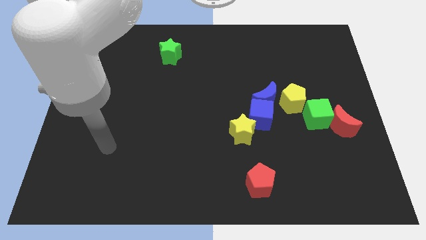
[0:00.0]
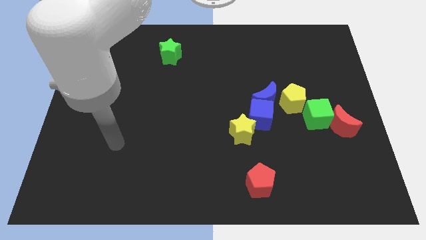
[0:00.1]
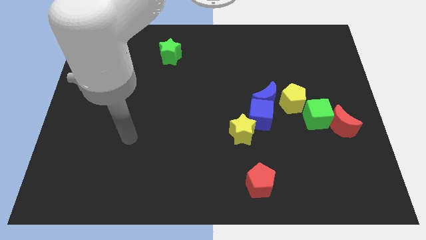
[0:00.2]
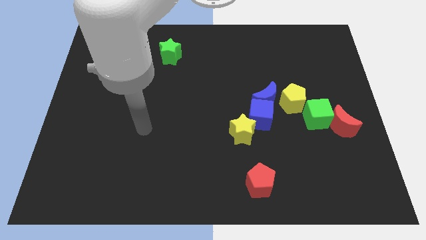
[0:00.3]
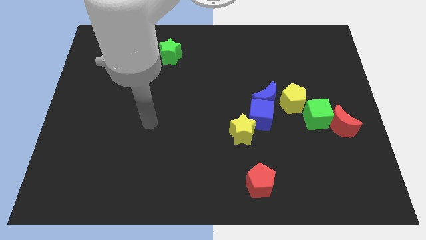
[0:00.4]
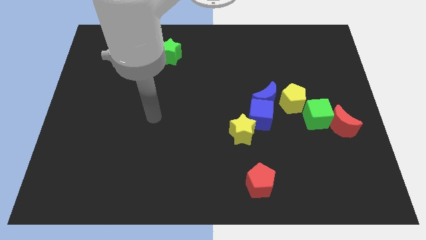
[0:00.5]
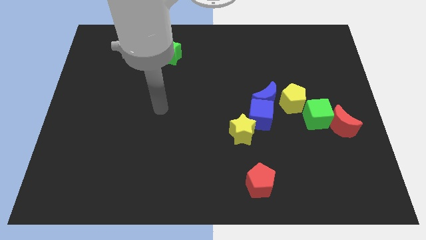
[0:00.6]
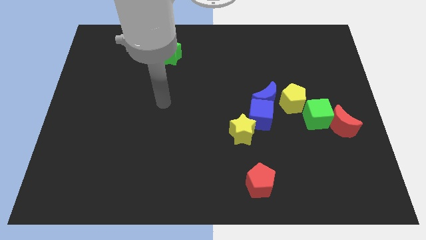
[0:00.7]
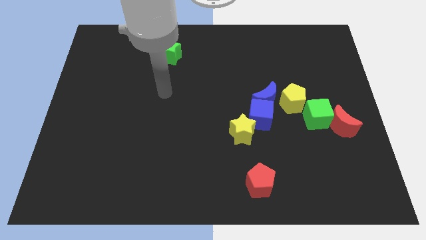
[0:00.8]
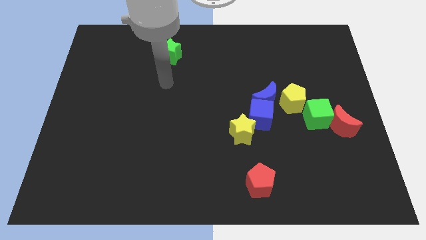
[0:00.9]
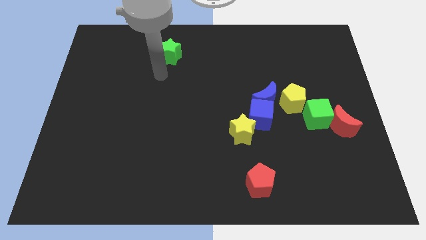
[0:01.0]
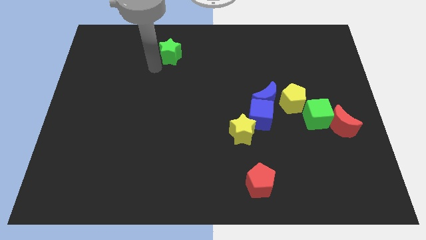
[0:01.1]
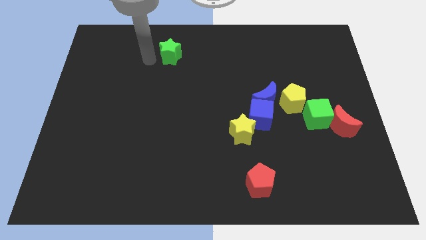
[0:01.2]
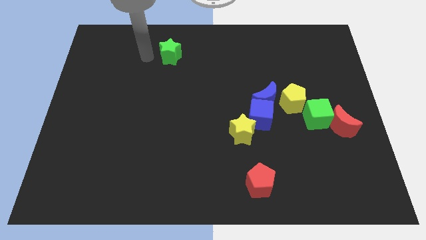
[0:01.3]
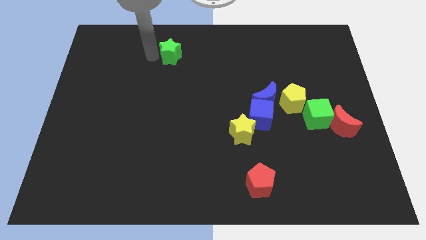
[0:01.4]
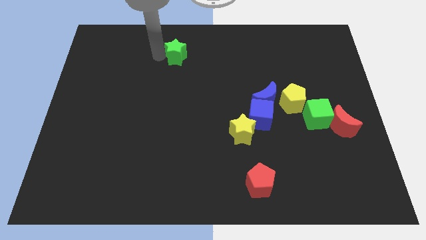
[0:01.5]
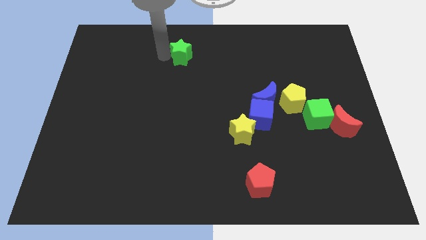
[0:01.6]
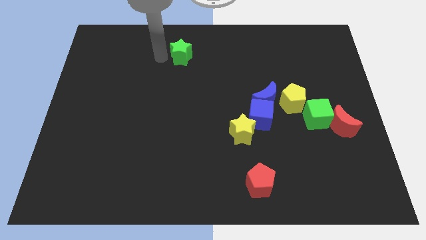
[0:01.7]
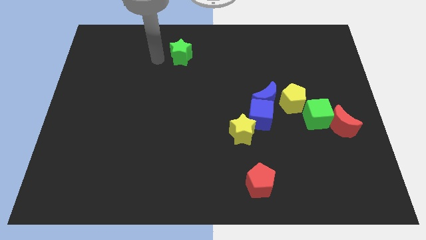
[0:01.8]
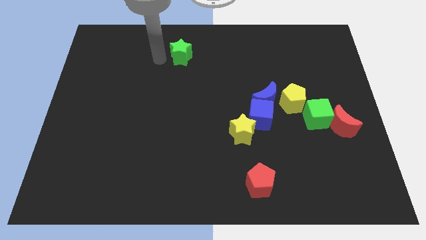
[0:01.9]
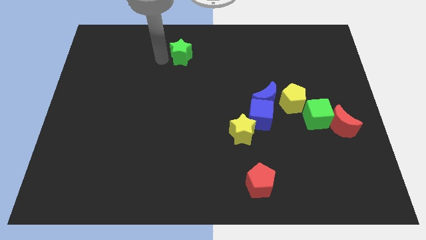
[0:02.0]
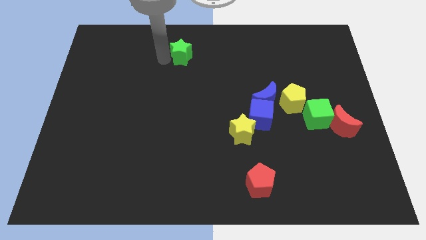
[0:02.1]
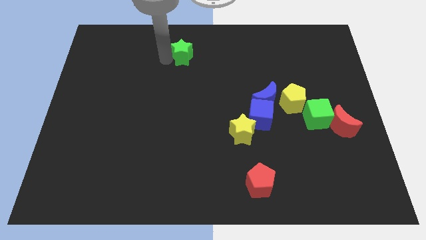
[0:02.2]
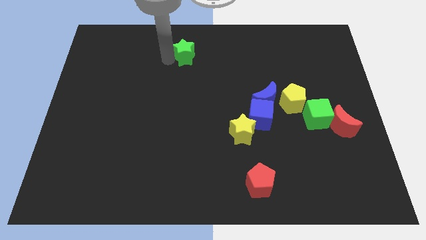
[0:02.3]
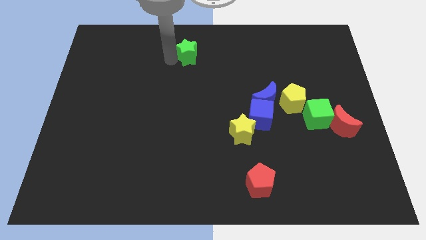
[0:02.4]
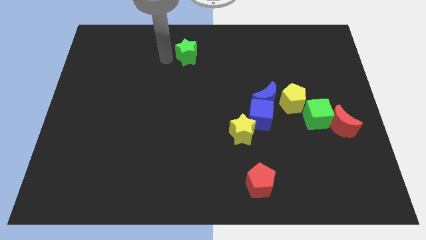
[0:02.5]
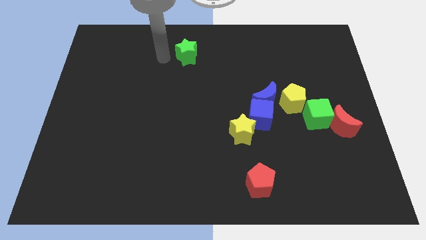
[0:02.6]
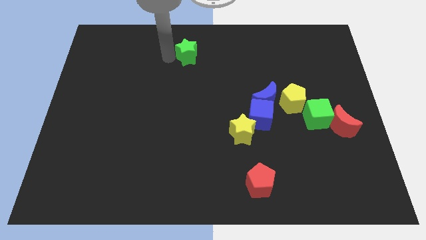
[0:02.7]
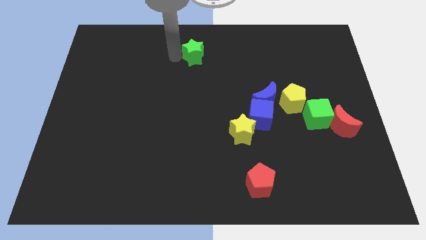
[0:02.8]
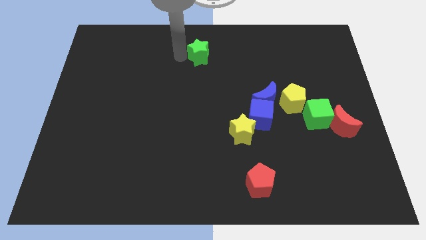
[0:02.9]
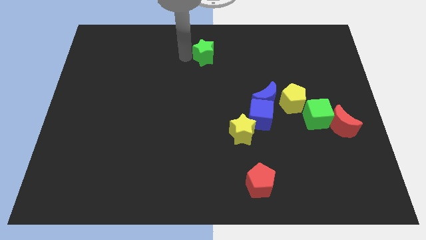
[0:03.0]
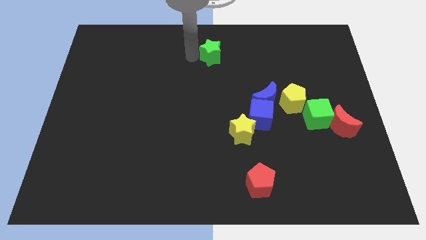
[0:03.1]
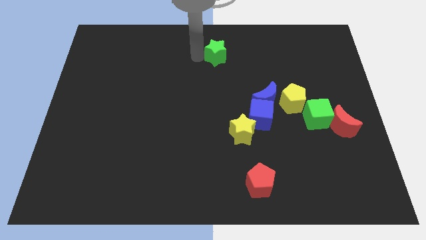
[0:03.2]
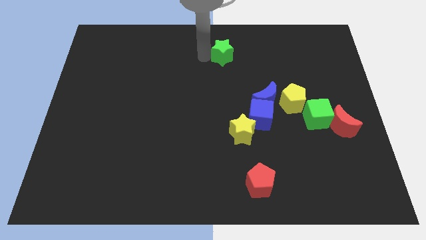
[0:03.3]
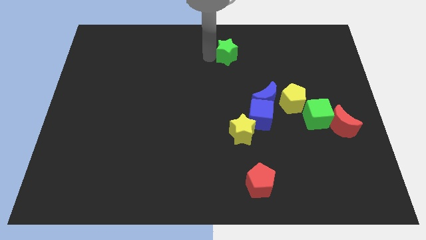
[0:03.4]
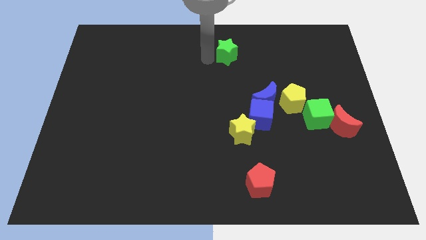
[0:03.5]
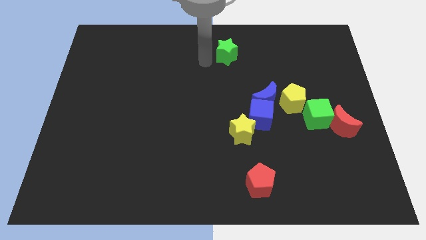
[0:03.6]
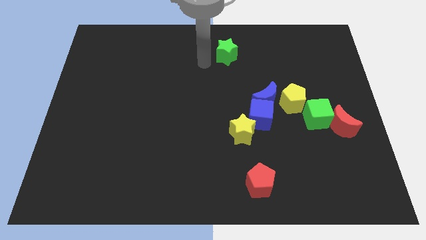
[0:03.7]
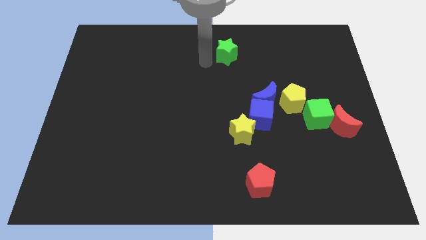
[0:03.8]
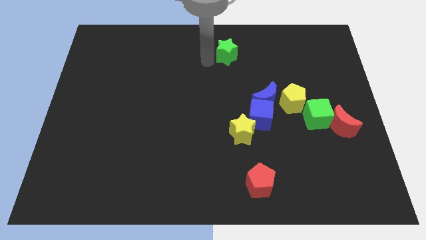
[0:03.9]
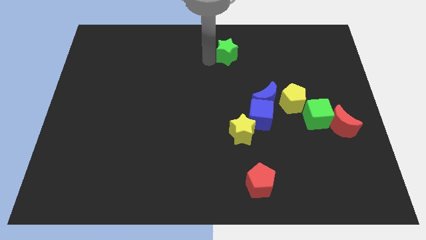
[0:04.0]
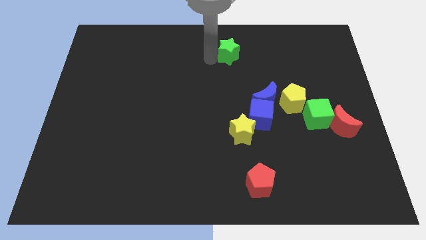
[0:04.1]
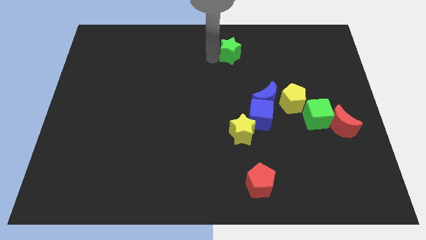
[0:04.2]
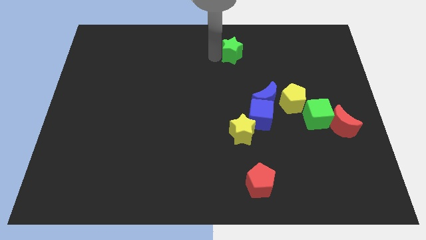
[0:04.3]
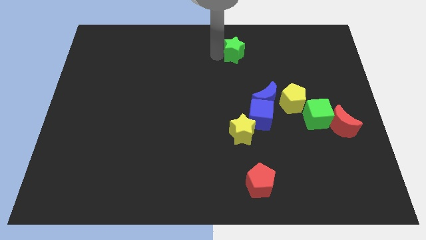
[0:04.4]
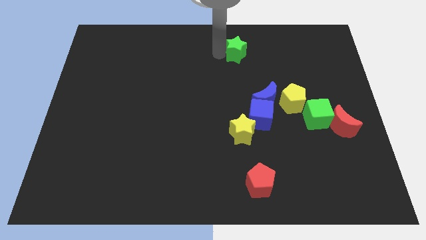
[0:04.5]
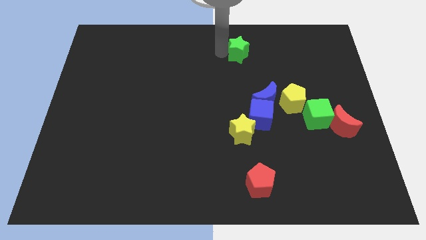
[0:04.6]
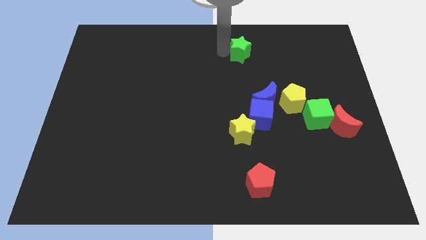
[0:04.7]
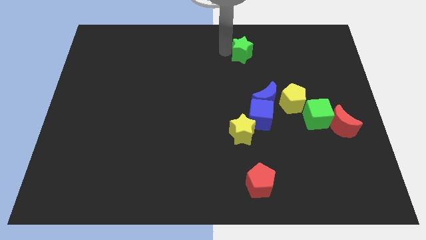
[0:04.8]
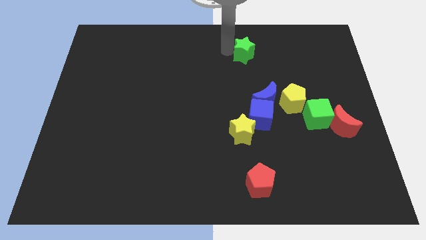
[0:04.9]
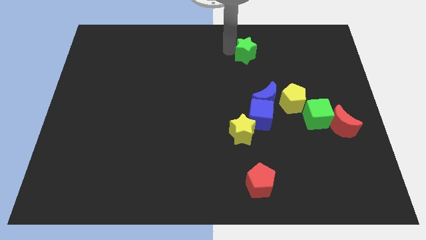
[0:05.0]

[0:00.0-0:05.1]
push the green star to the right

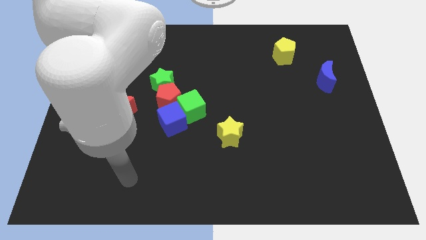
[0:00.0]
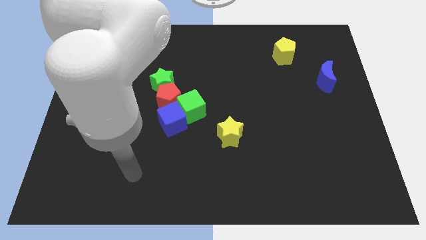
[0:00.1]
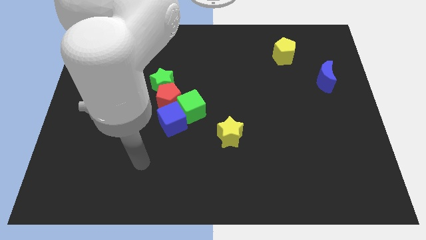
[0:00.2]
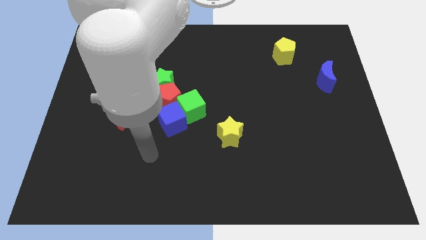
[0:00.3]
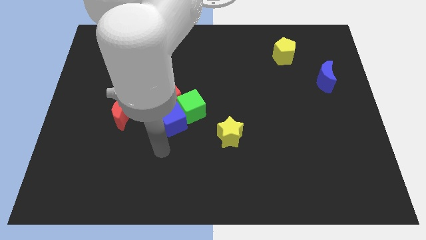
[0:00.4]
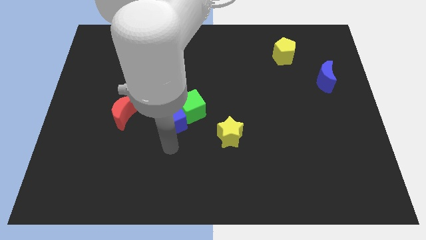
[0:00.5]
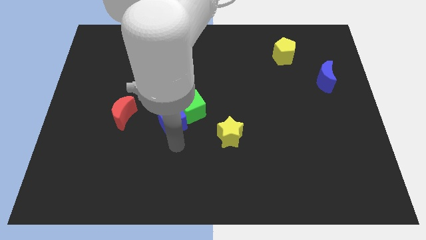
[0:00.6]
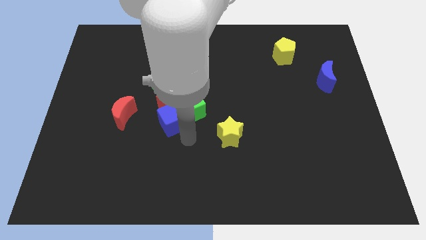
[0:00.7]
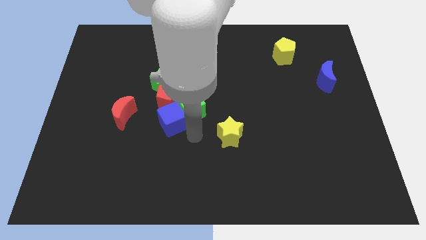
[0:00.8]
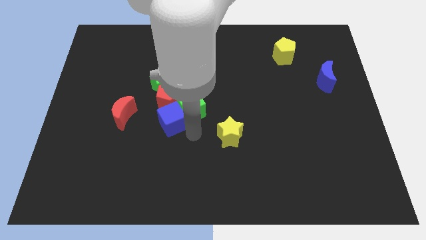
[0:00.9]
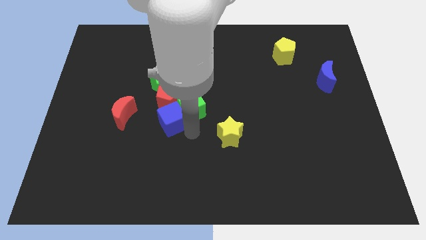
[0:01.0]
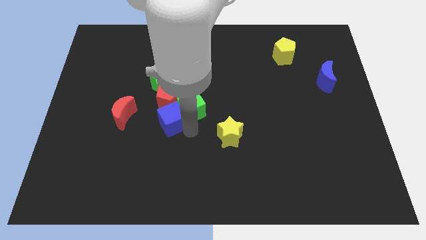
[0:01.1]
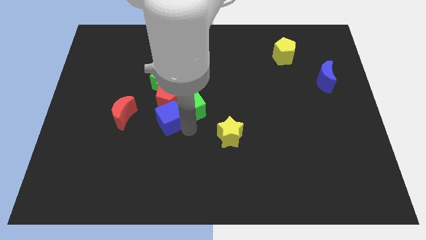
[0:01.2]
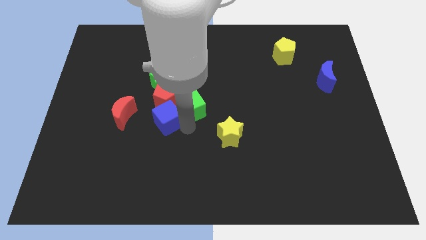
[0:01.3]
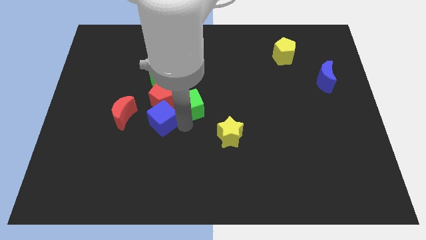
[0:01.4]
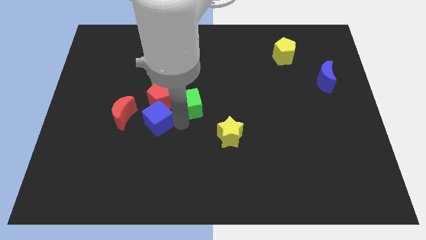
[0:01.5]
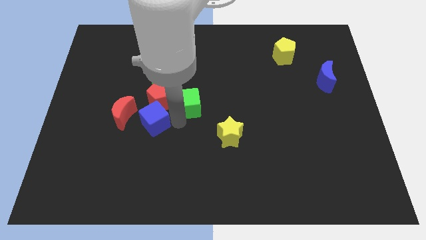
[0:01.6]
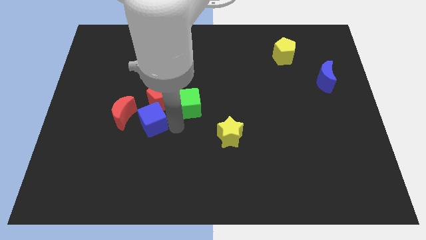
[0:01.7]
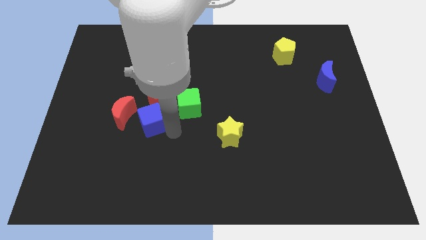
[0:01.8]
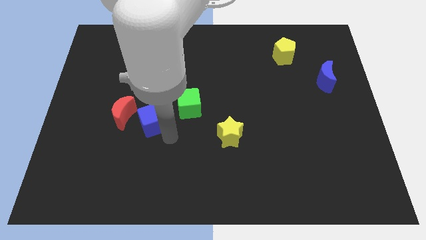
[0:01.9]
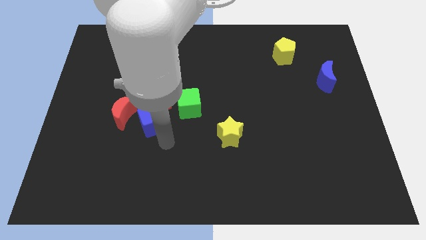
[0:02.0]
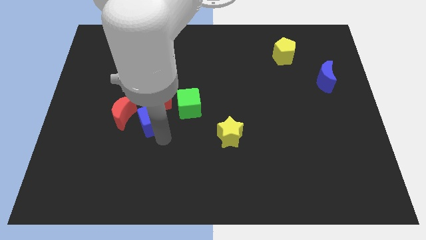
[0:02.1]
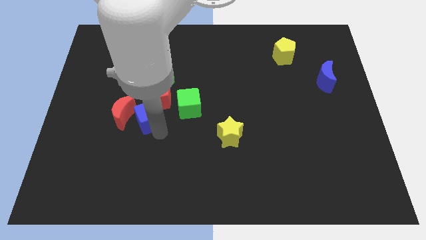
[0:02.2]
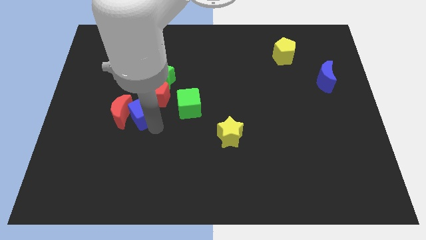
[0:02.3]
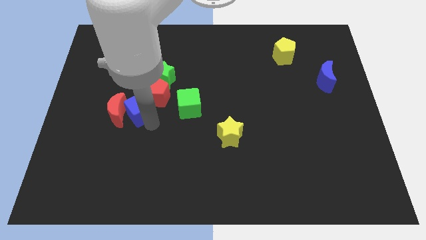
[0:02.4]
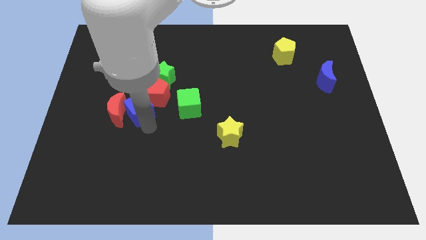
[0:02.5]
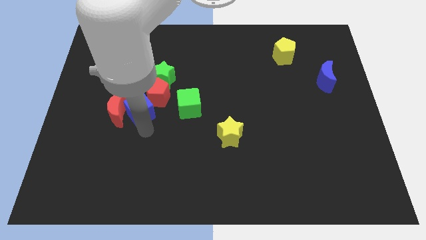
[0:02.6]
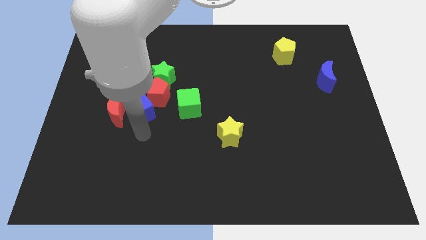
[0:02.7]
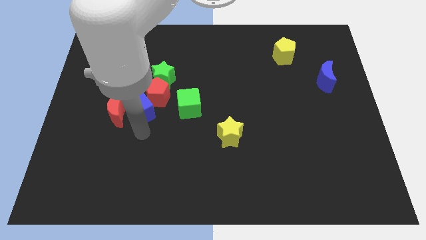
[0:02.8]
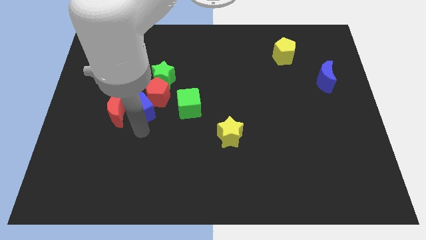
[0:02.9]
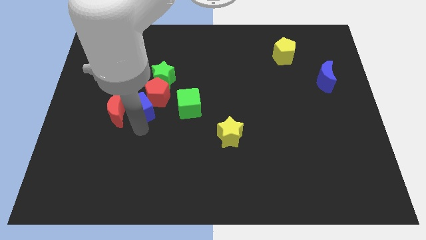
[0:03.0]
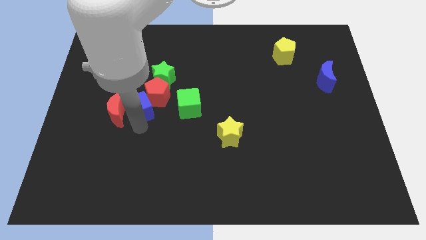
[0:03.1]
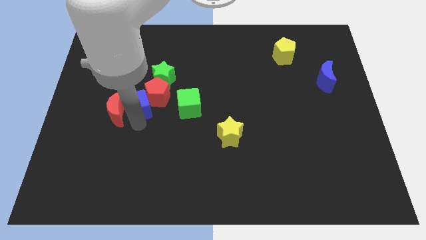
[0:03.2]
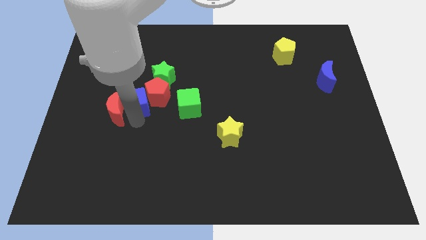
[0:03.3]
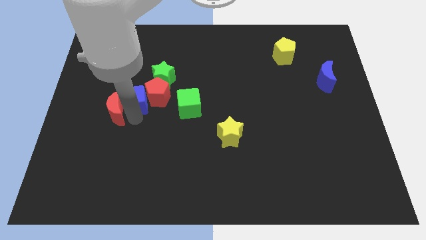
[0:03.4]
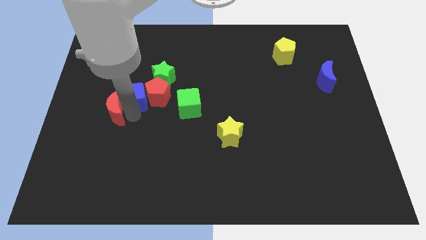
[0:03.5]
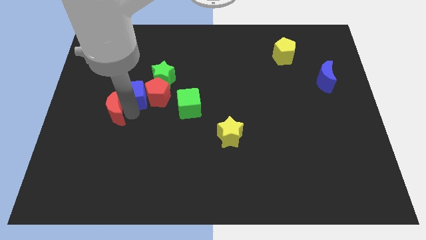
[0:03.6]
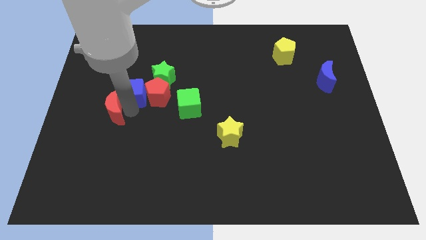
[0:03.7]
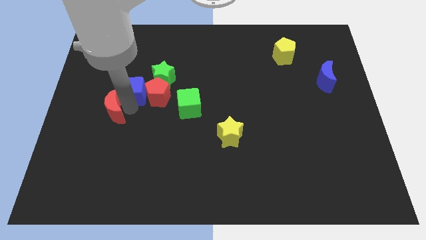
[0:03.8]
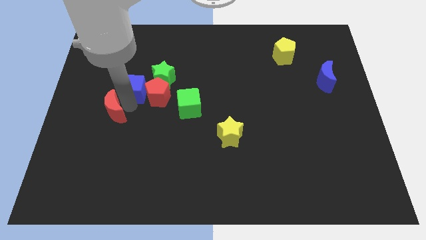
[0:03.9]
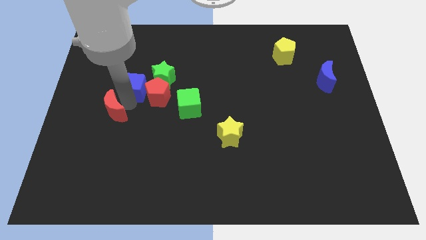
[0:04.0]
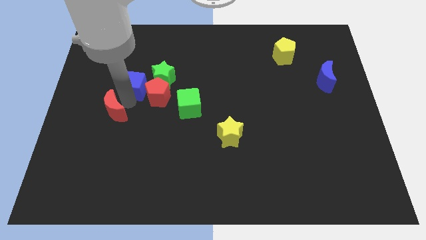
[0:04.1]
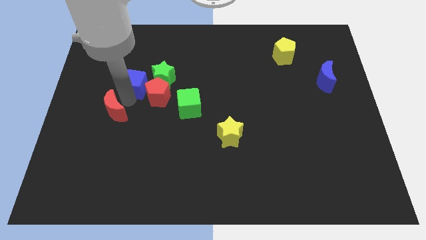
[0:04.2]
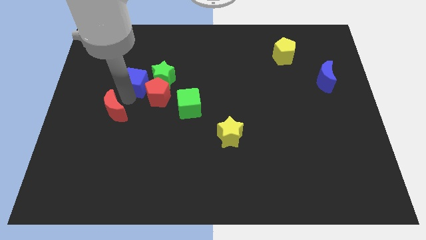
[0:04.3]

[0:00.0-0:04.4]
move the blue cube somewhat up
